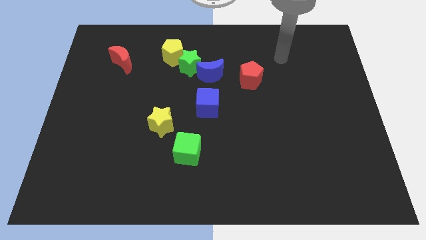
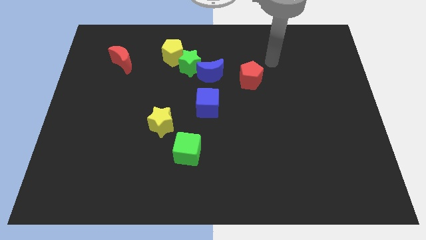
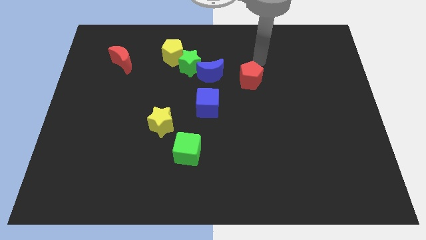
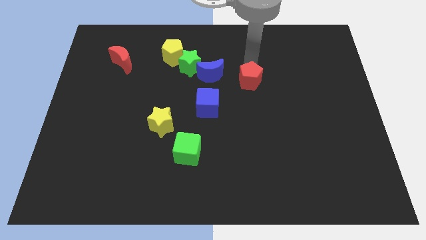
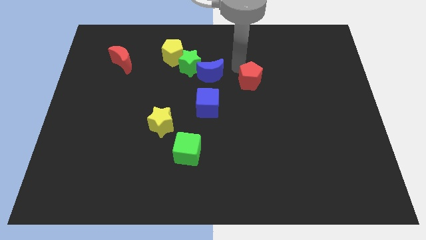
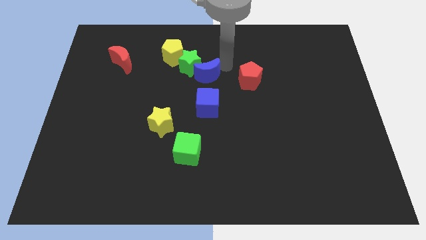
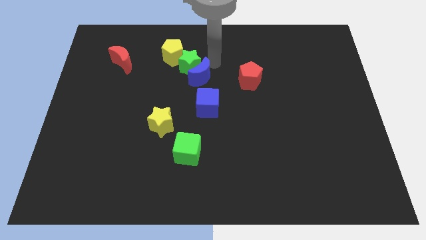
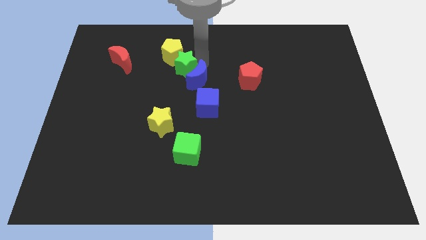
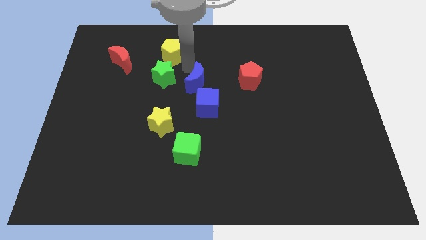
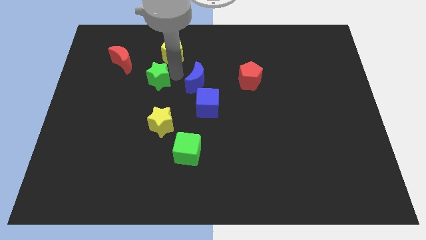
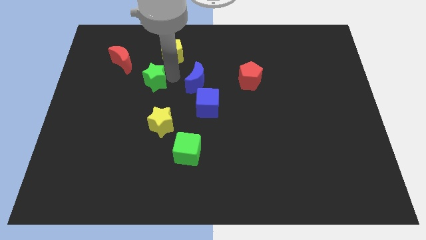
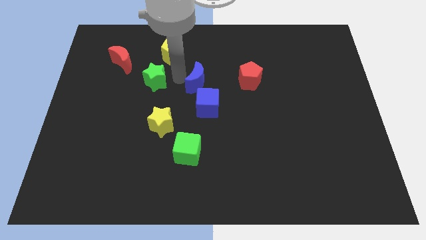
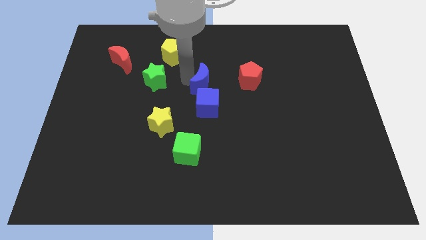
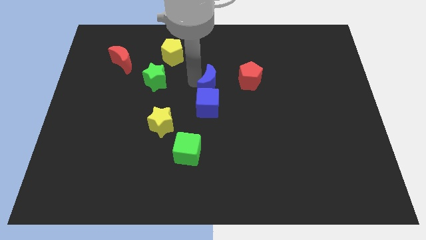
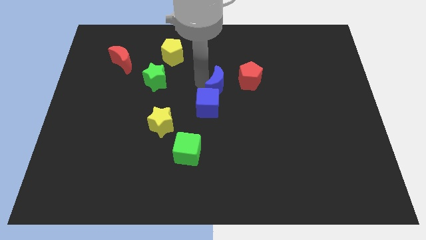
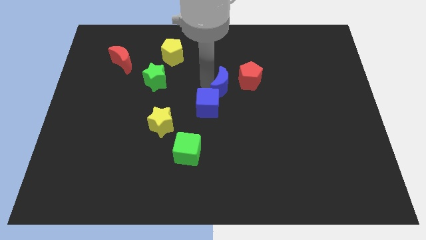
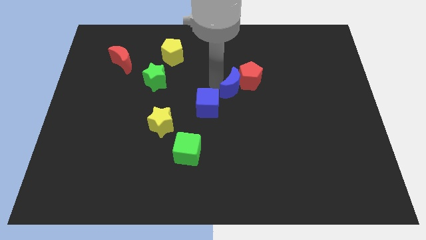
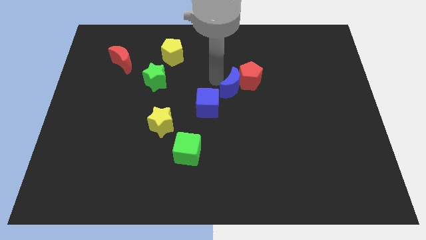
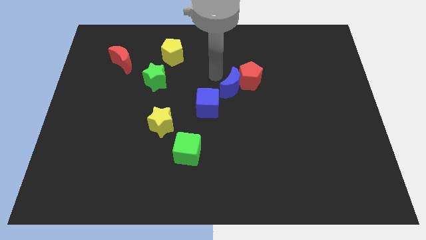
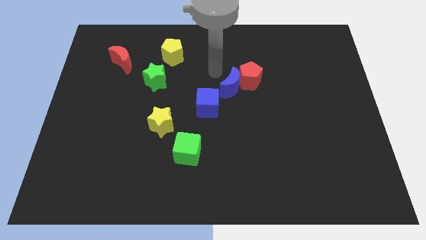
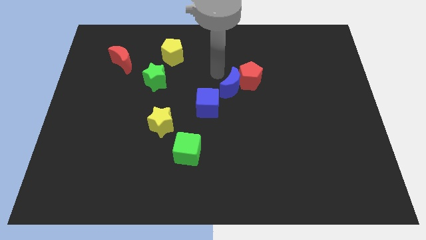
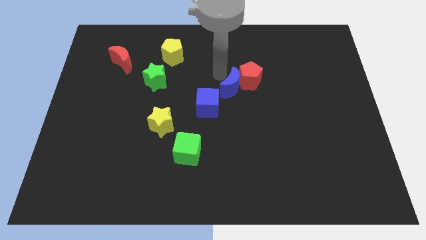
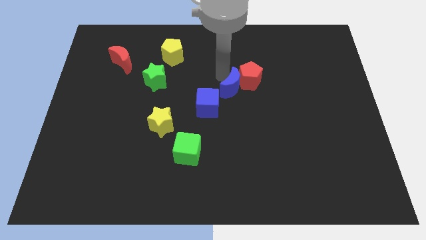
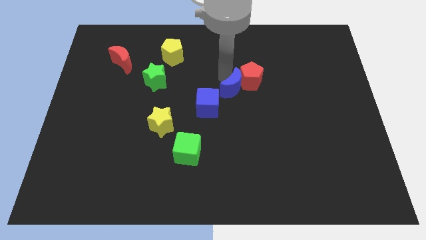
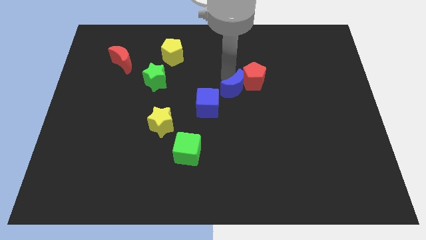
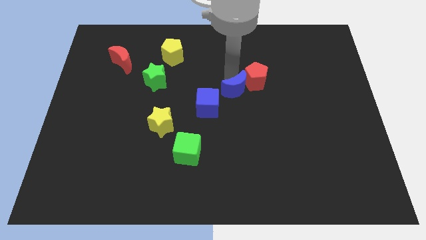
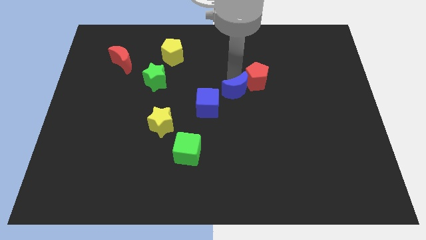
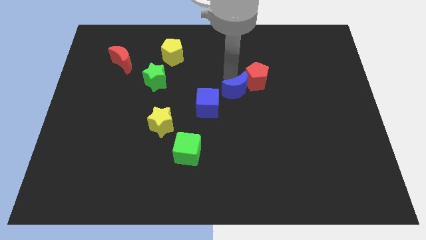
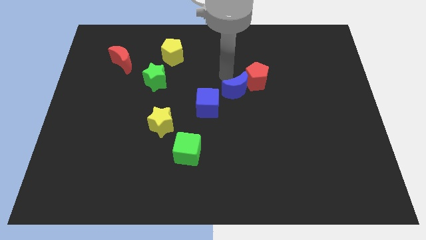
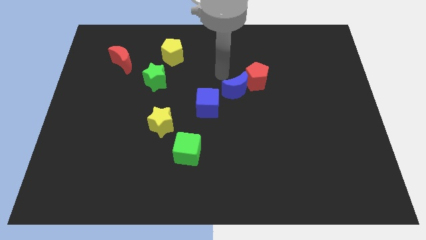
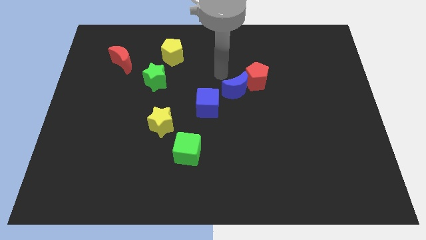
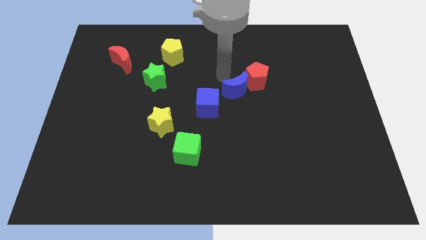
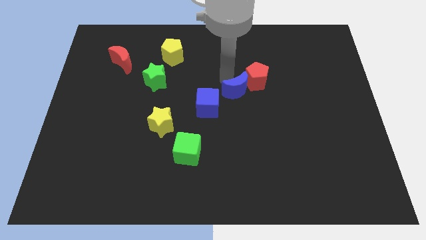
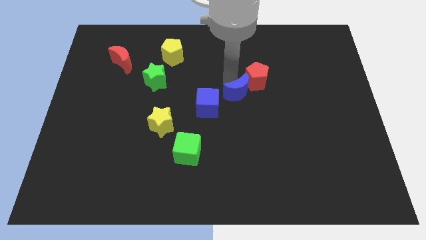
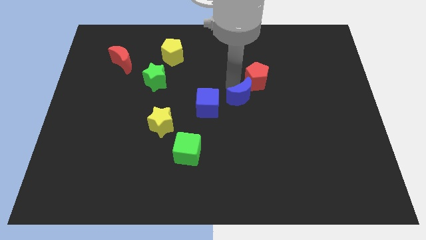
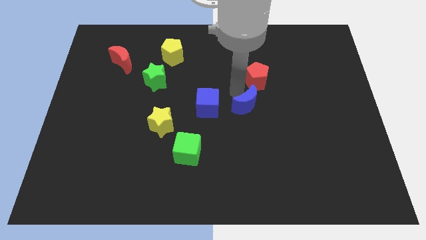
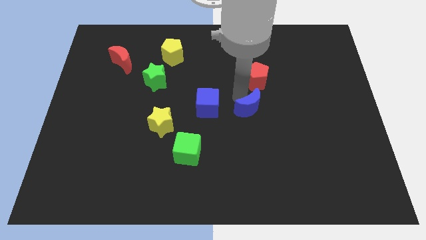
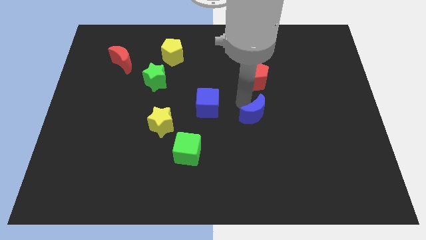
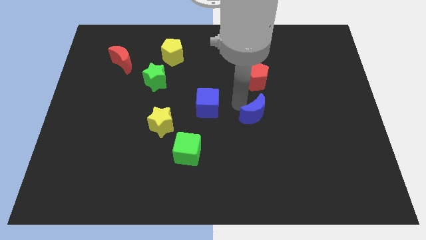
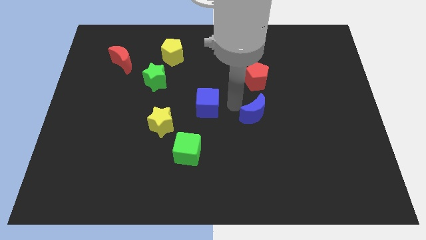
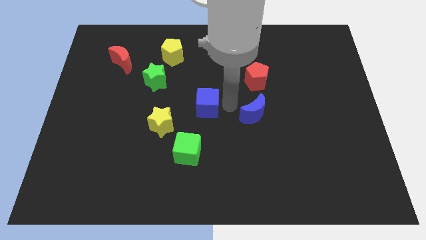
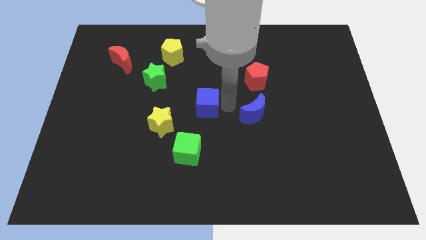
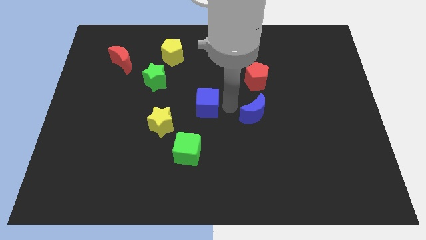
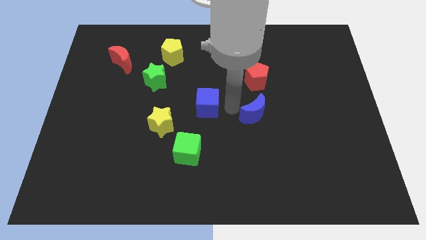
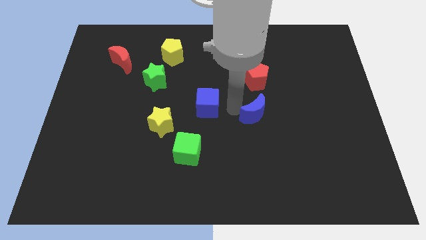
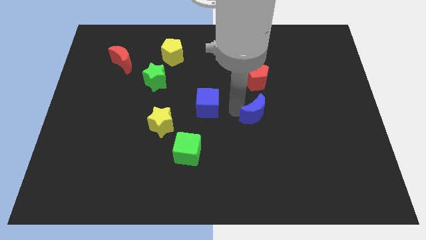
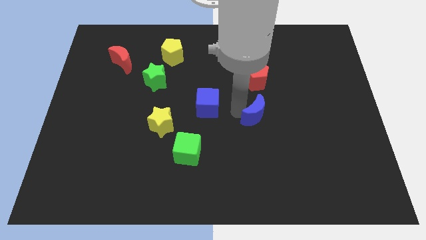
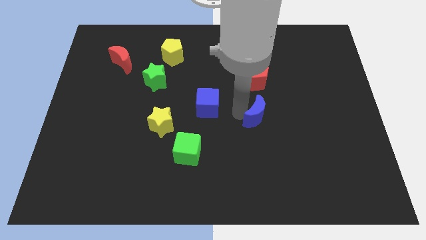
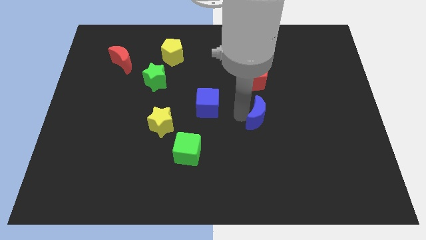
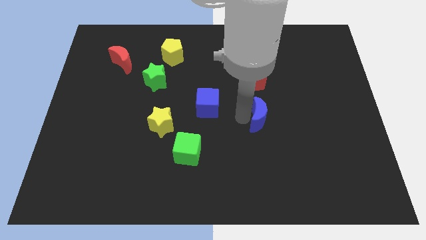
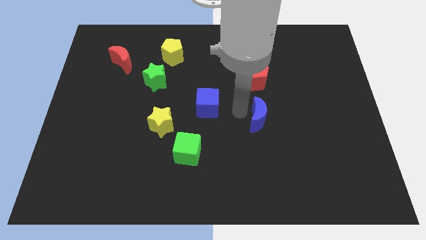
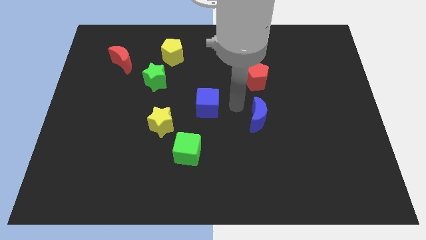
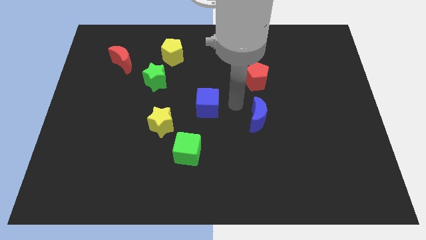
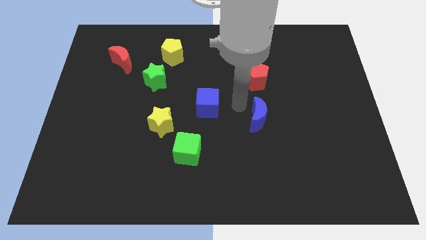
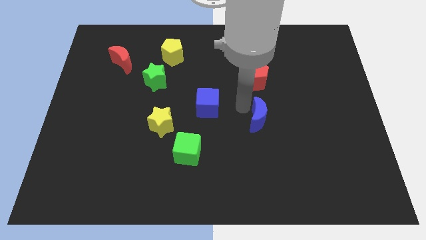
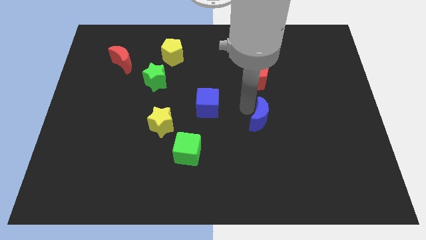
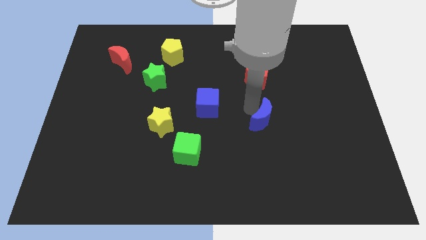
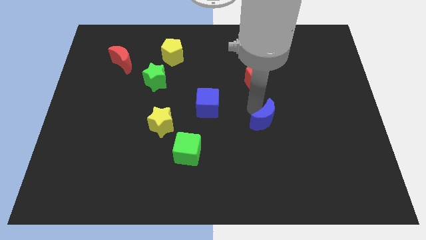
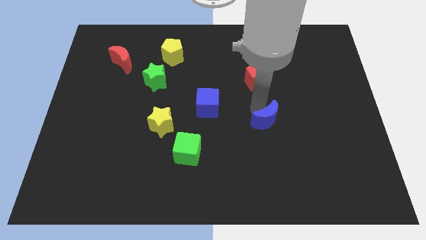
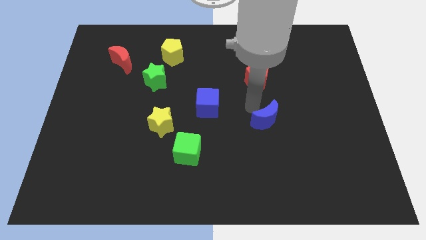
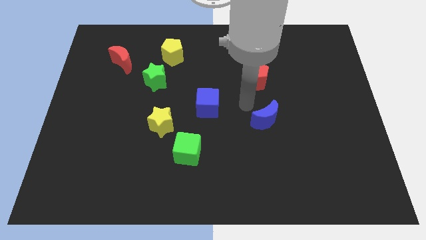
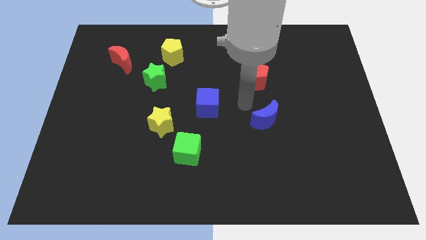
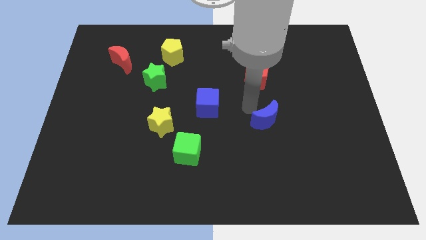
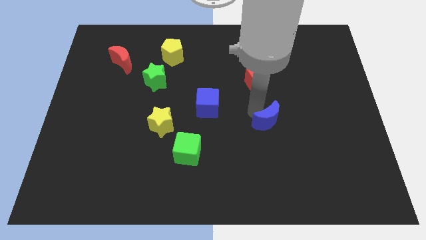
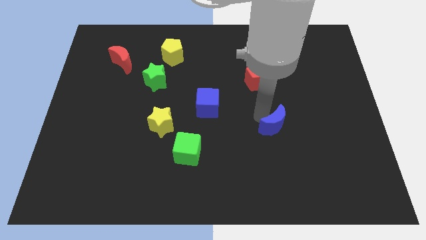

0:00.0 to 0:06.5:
push the blue moon down and then to the right

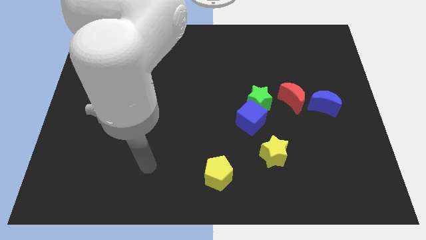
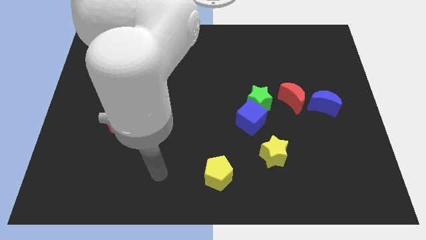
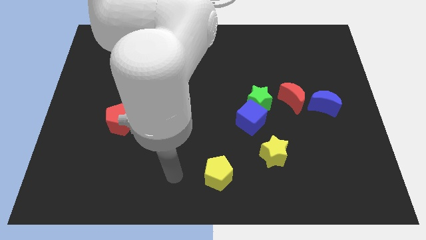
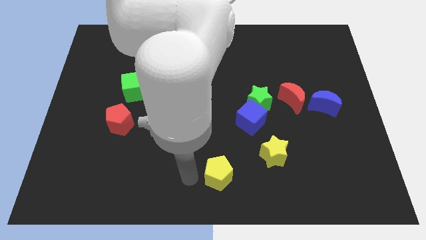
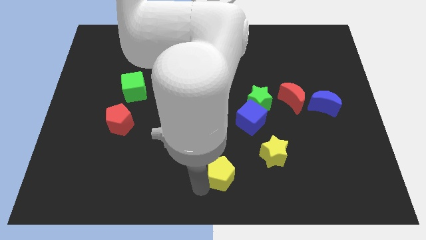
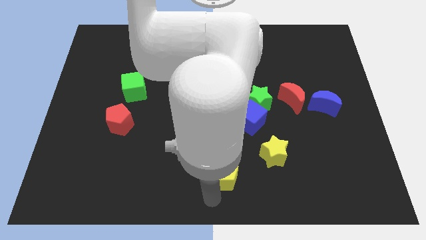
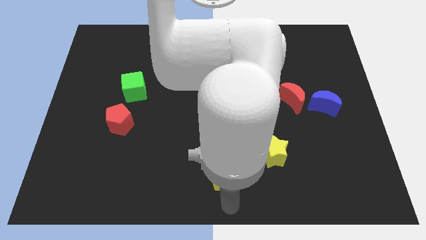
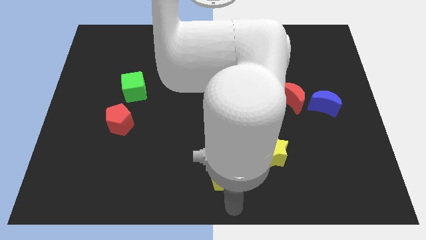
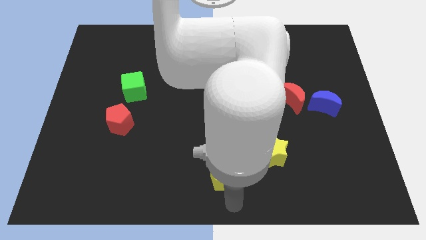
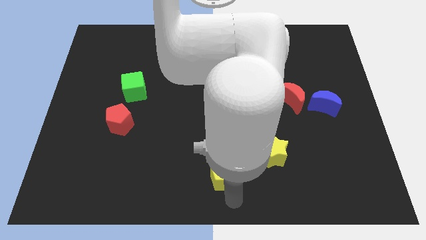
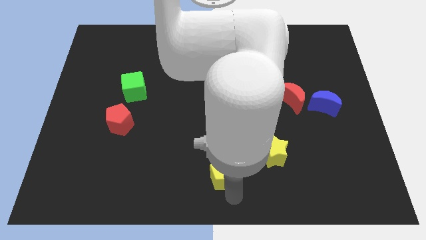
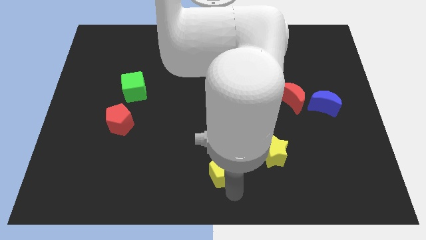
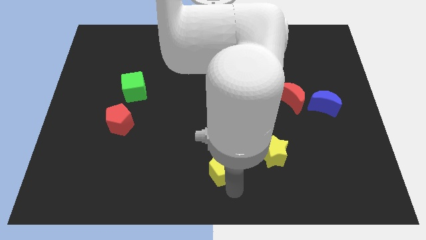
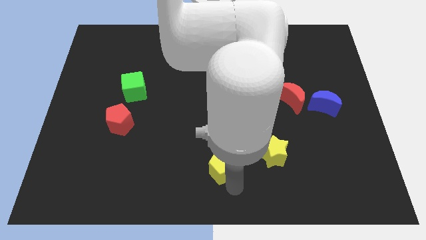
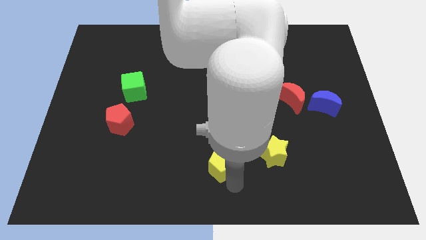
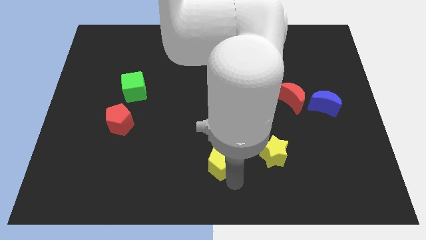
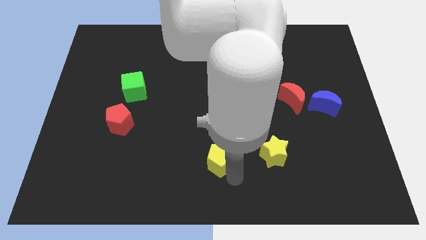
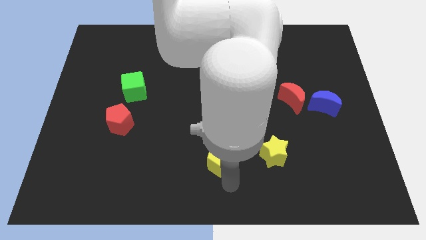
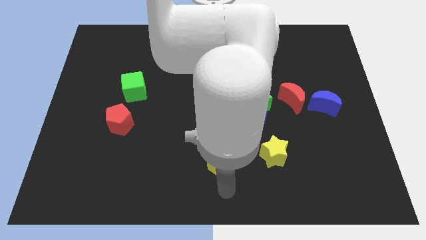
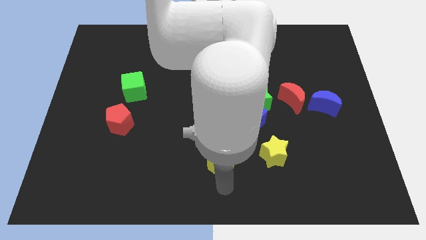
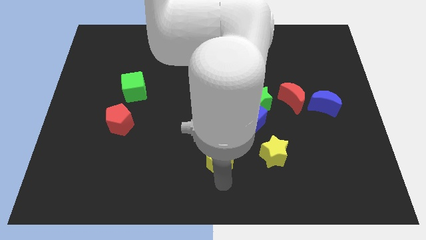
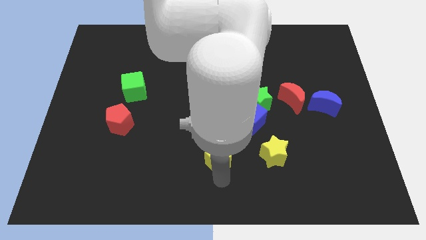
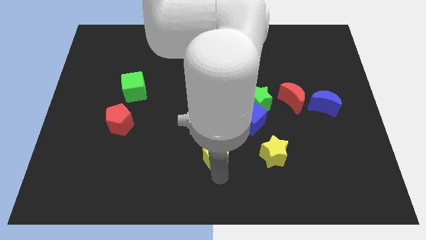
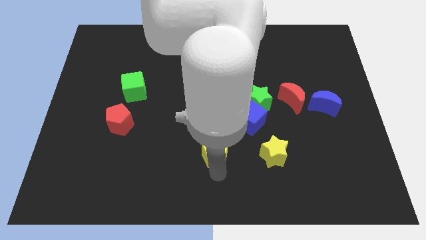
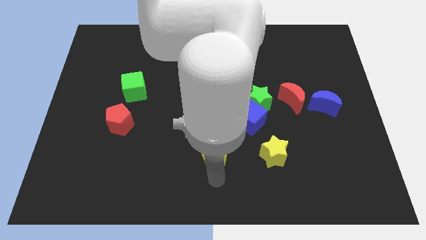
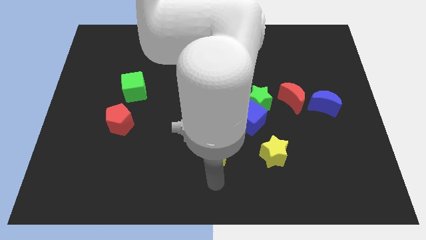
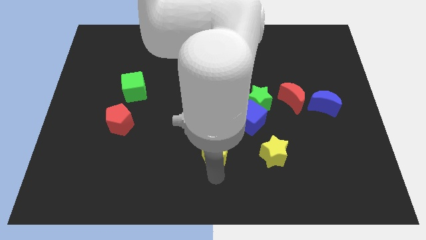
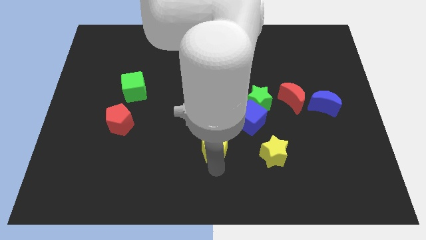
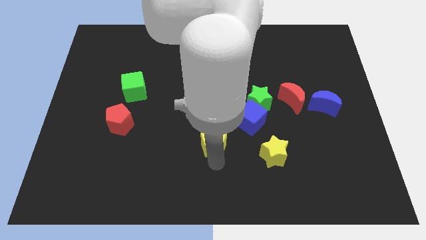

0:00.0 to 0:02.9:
move the yellow pentagon upwards a little bit
